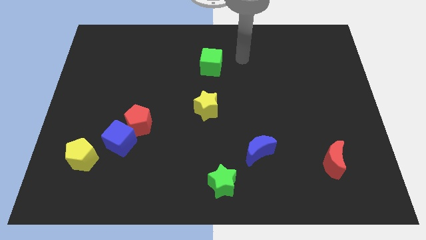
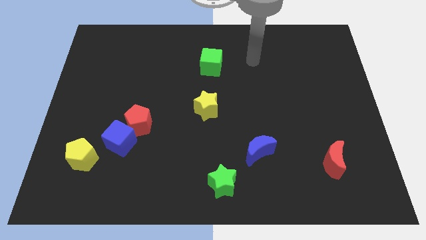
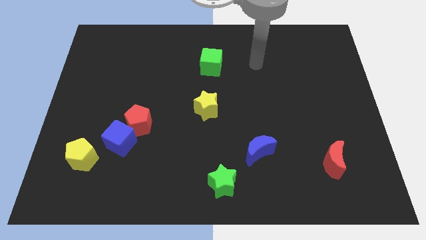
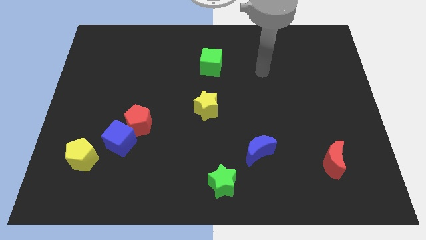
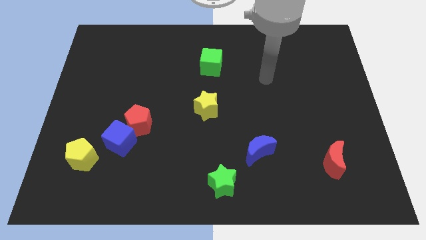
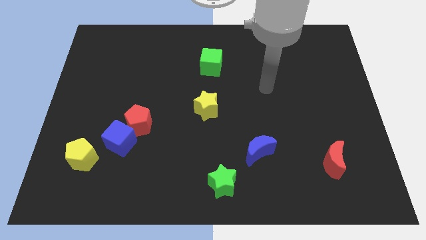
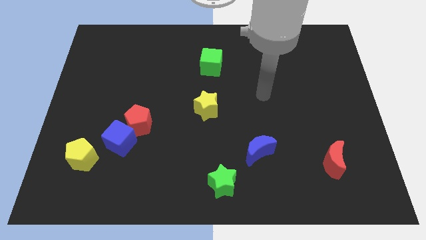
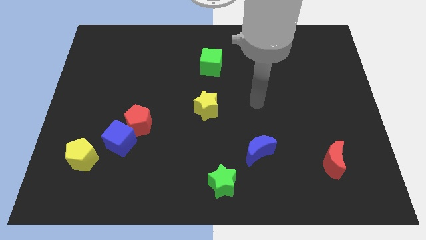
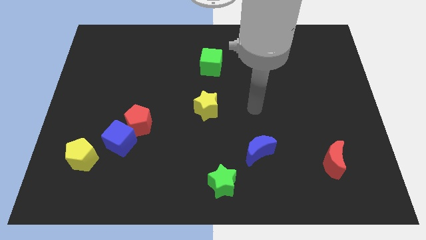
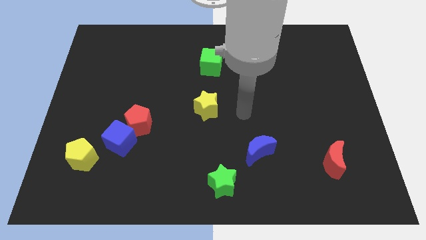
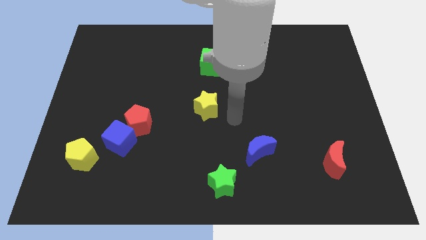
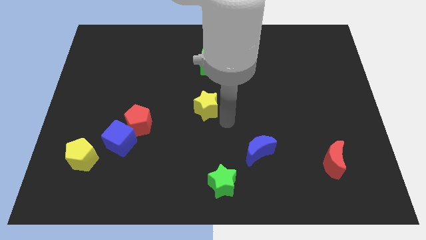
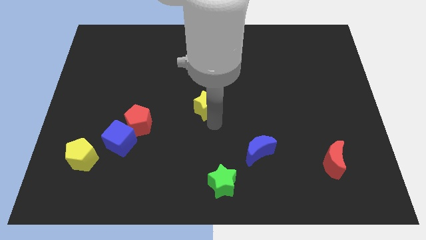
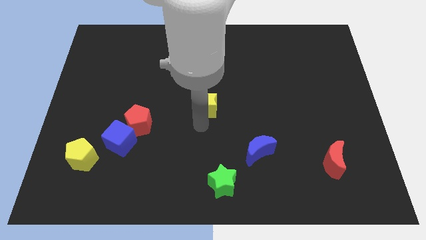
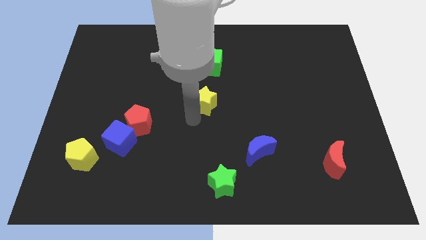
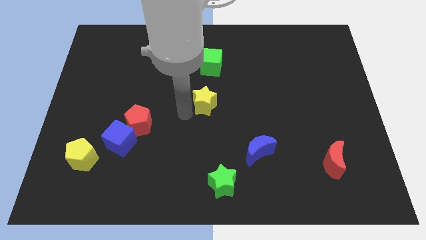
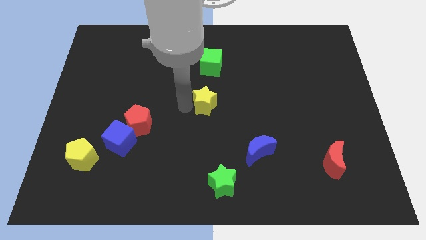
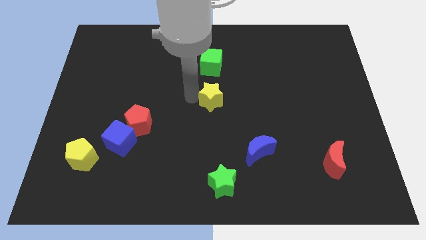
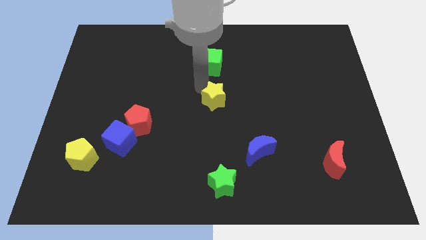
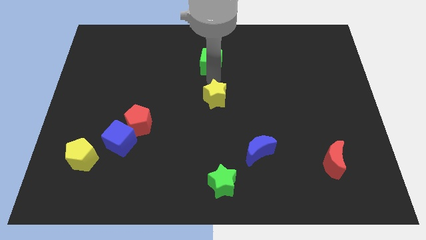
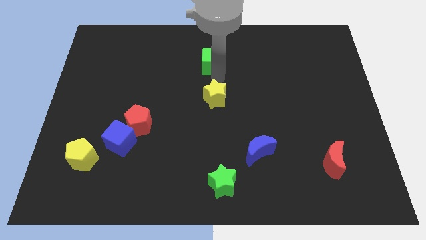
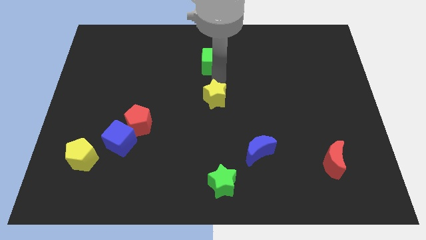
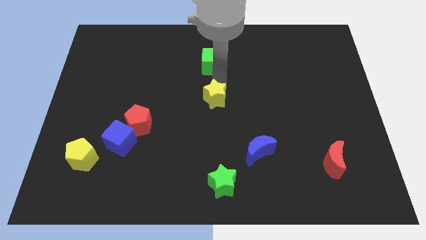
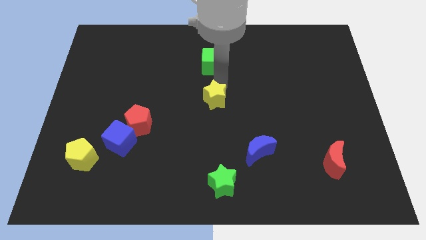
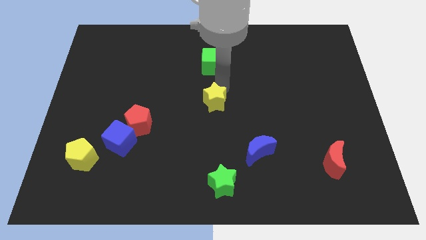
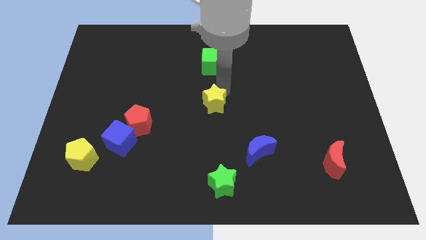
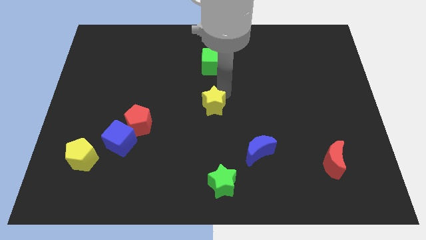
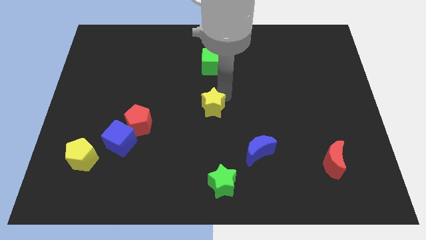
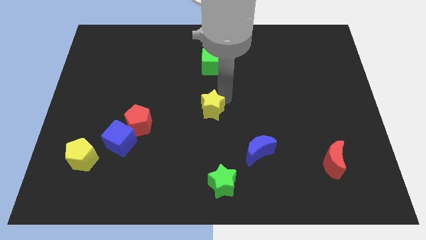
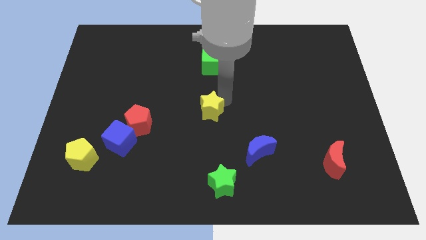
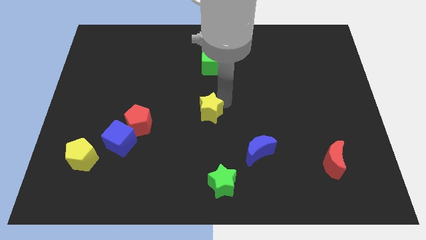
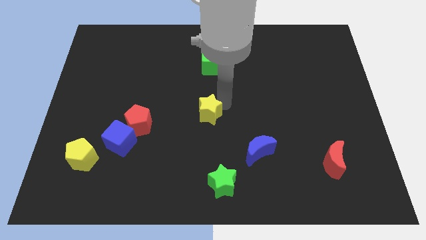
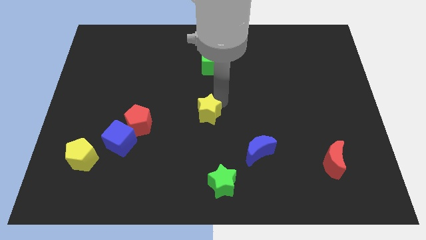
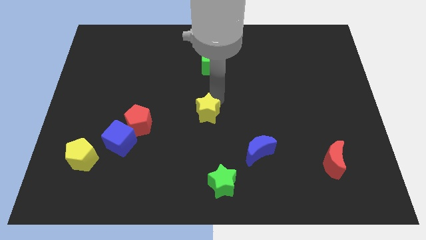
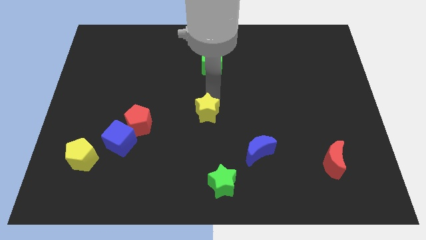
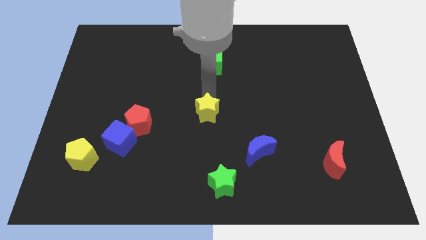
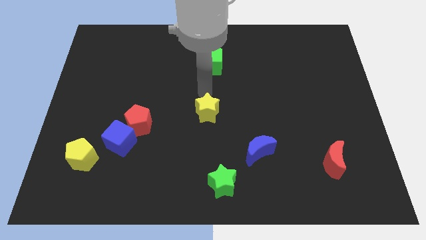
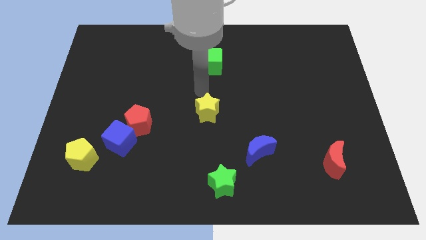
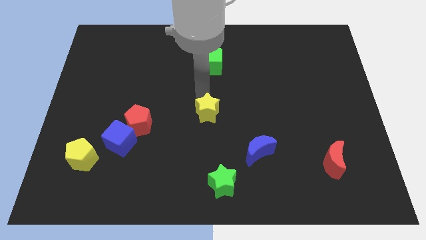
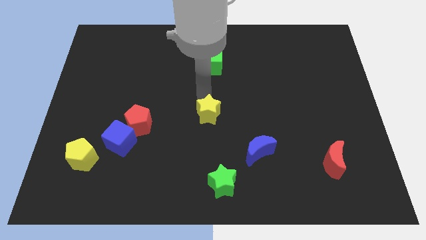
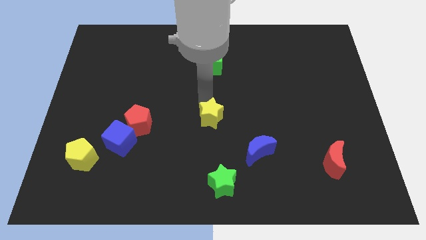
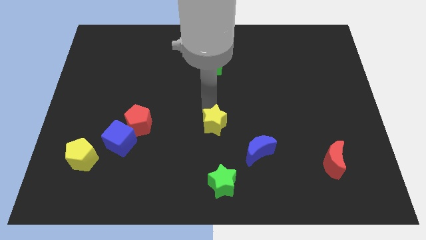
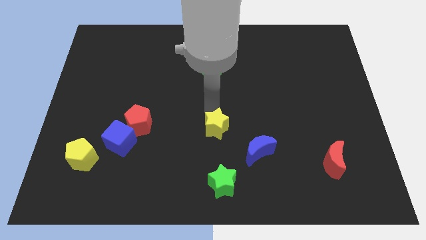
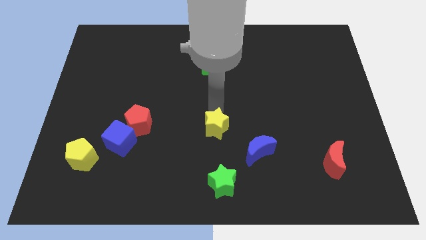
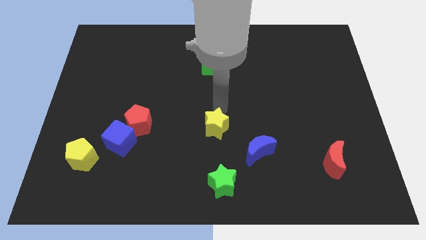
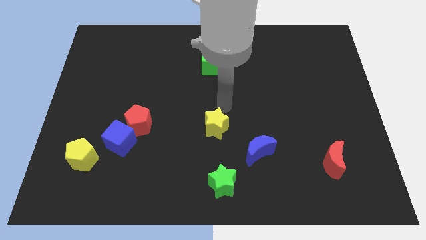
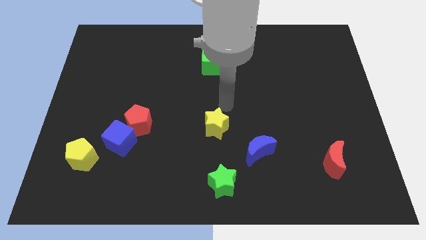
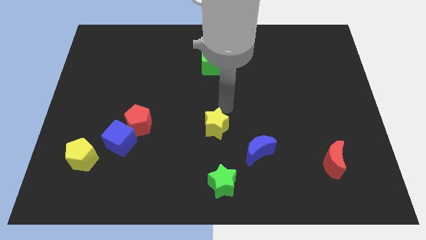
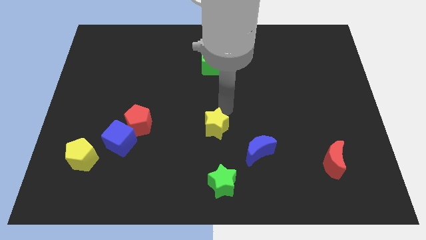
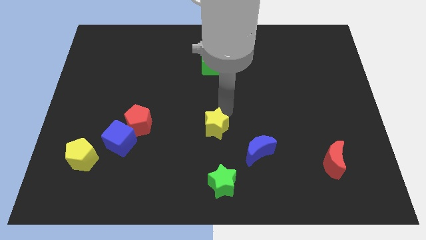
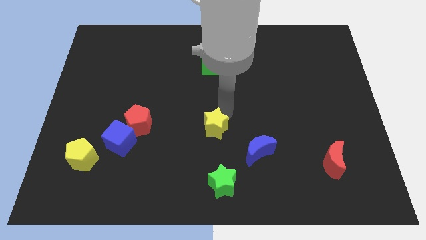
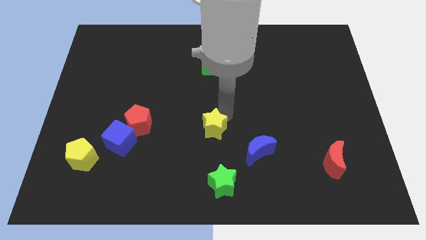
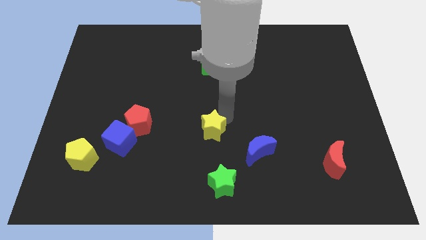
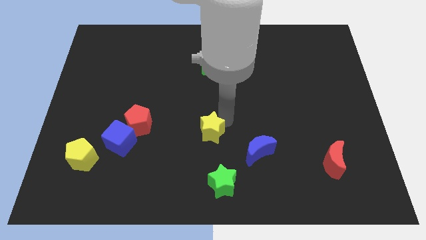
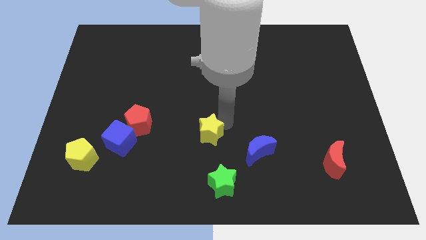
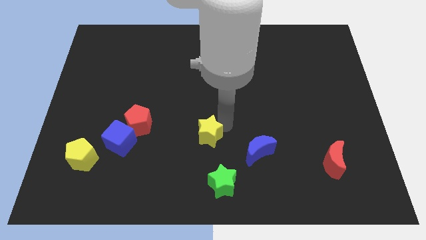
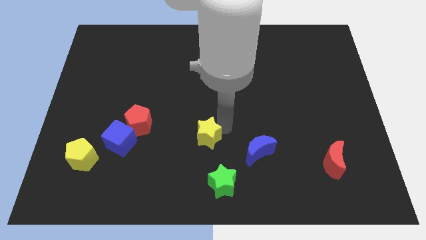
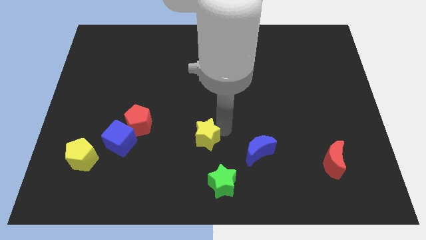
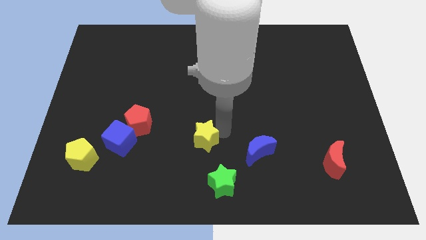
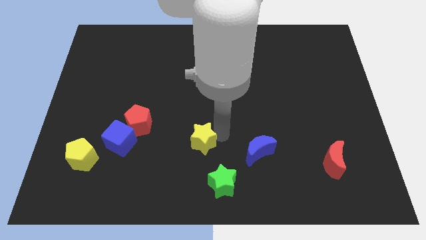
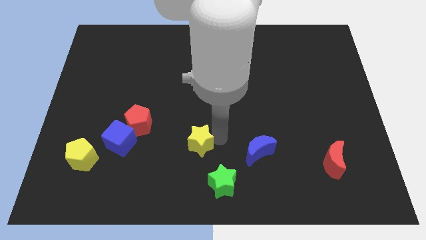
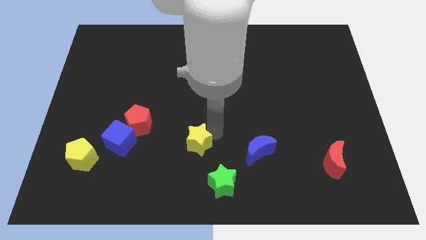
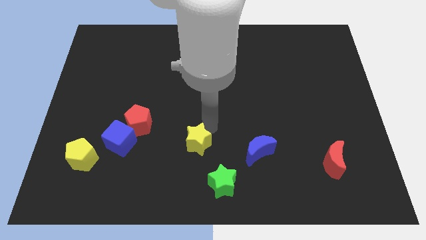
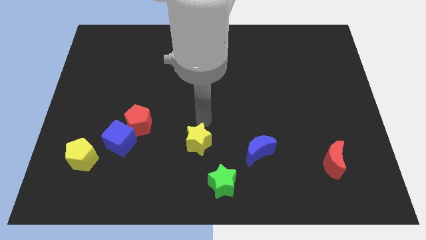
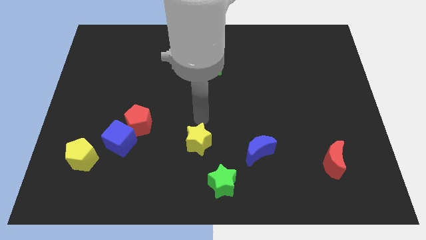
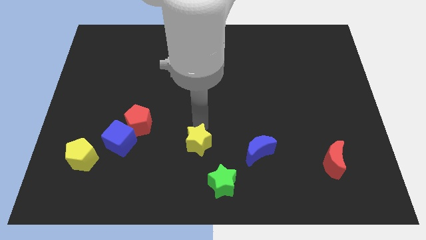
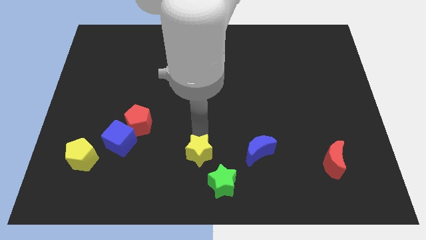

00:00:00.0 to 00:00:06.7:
slide the yellow star to the bottom

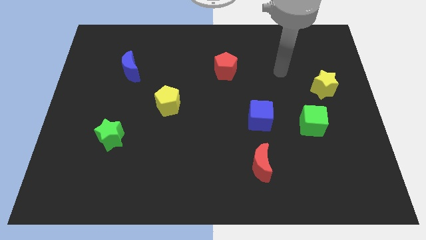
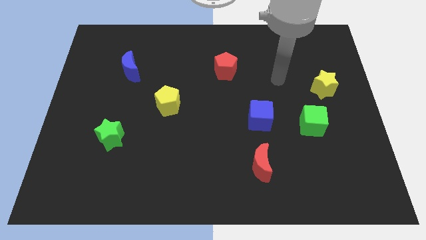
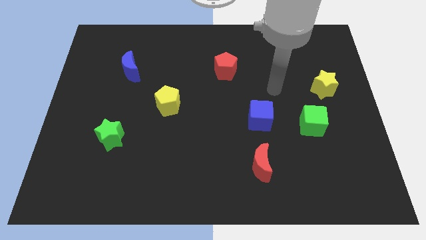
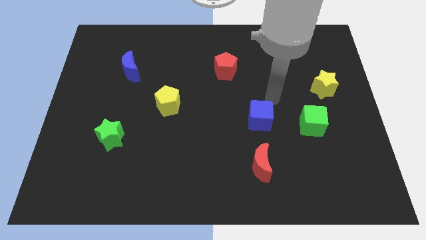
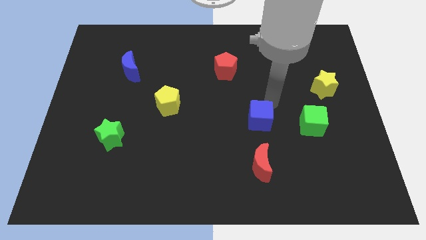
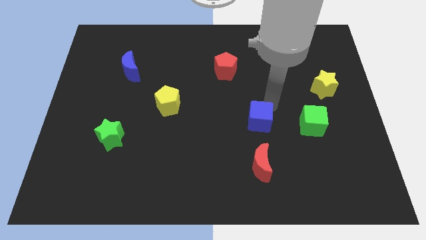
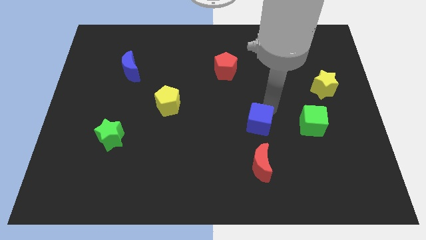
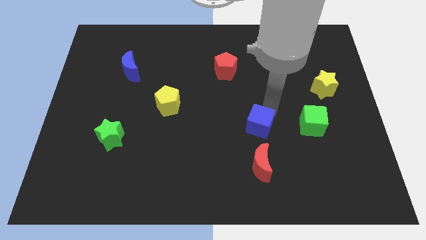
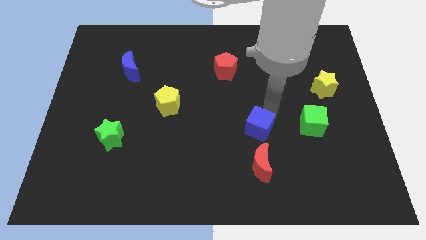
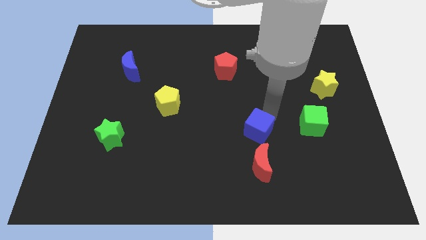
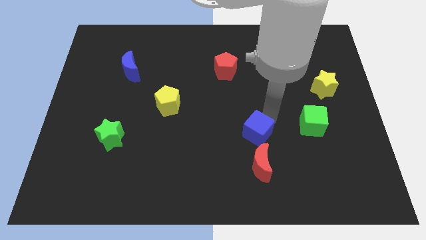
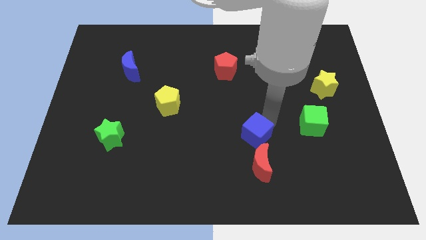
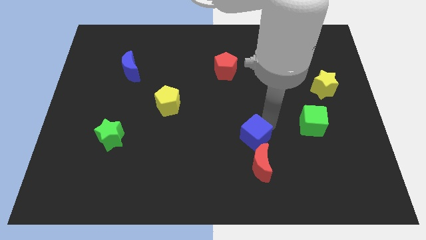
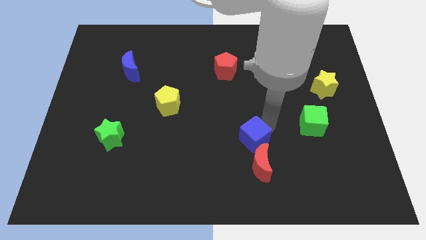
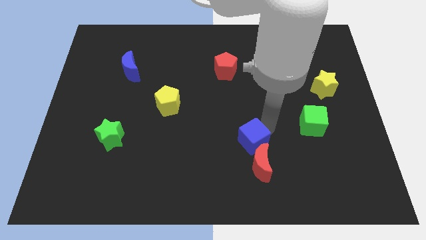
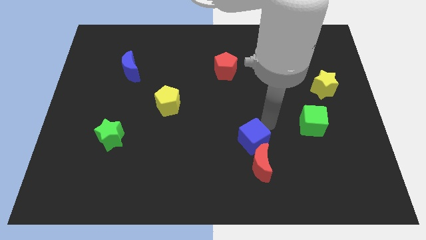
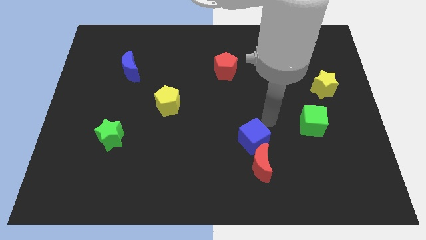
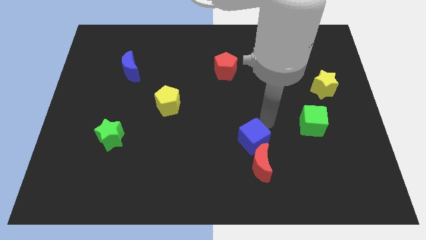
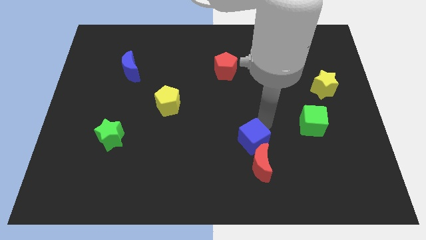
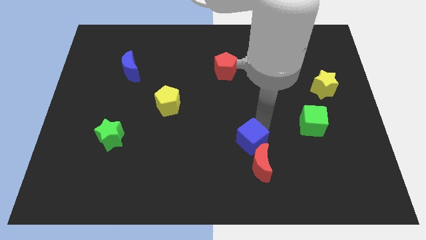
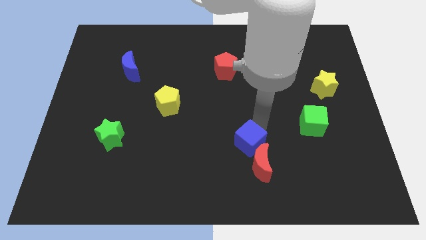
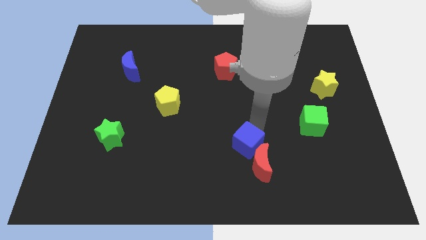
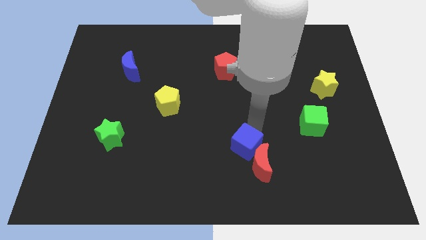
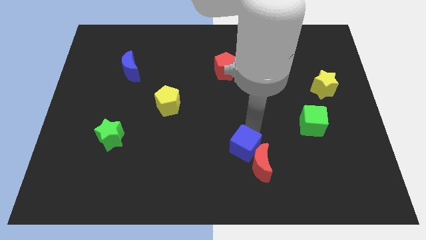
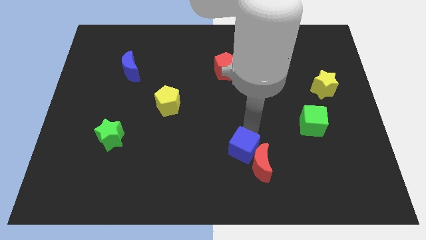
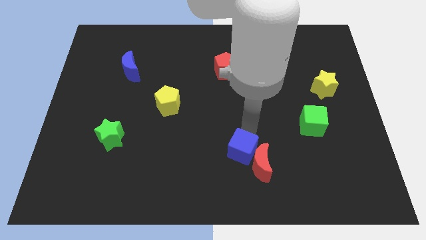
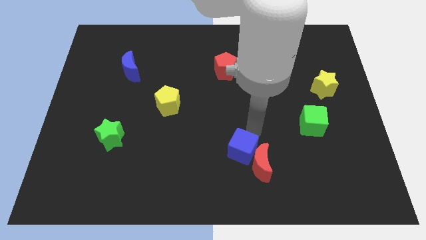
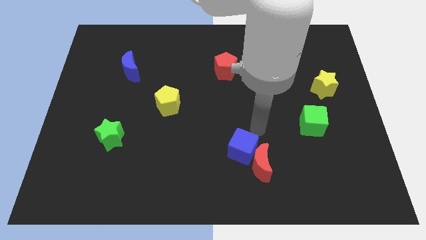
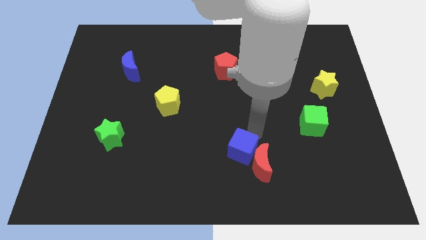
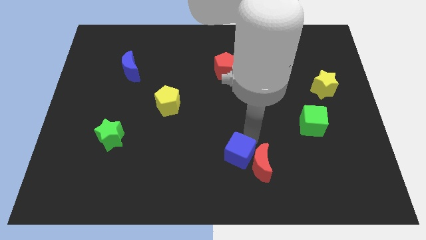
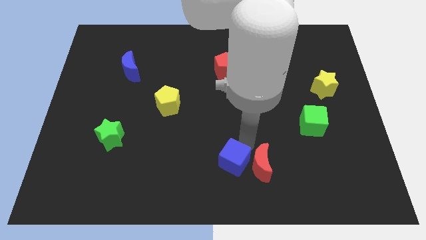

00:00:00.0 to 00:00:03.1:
put the blue cube to the bottom
